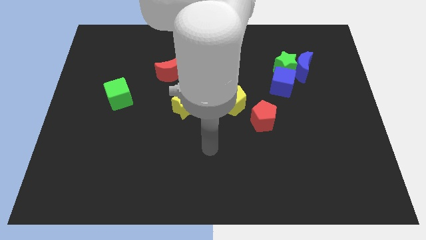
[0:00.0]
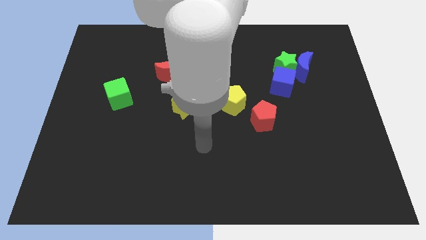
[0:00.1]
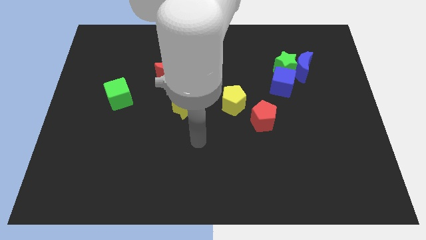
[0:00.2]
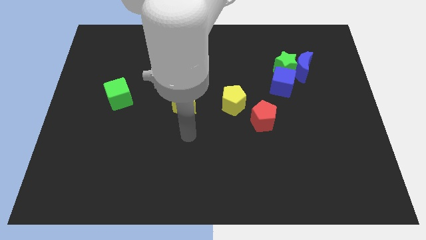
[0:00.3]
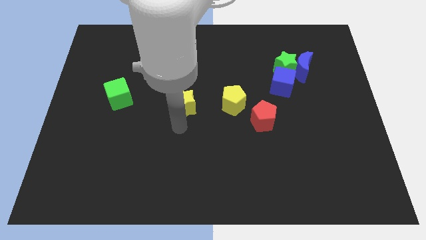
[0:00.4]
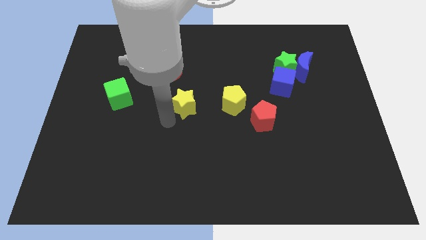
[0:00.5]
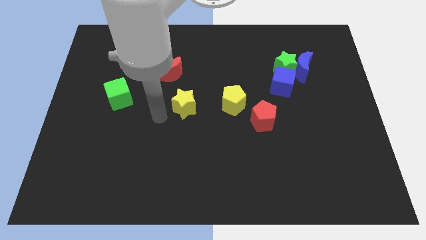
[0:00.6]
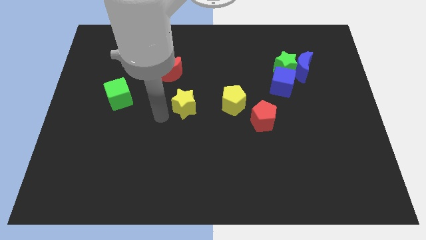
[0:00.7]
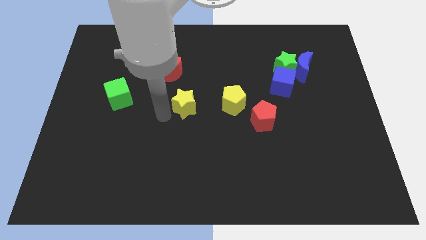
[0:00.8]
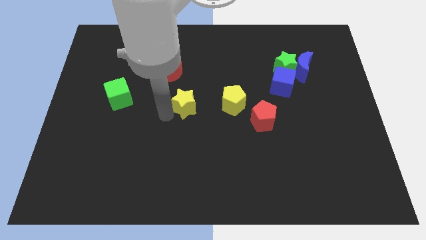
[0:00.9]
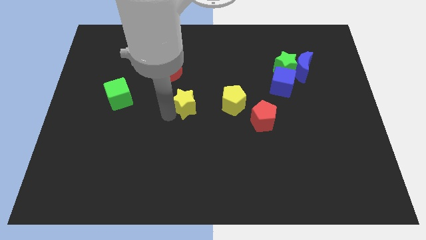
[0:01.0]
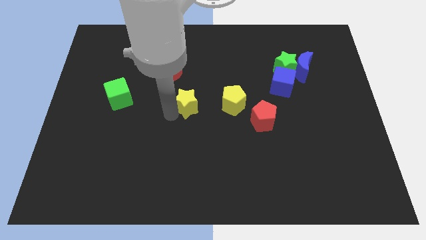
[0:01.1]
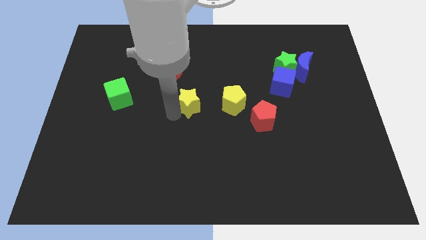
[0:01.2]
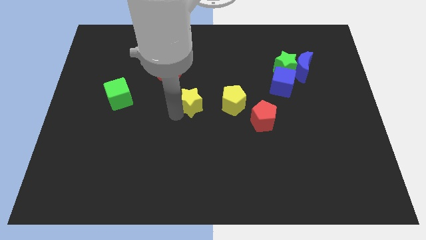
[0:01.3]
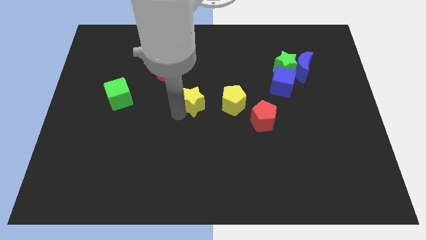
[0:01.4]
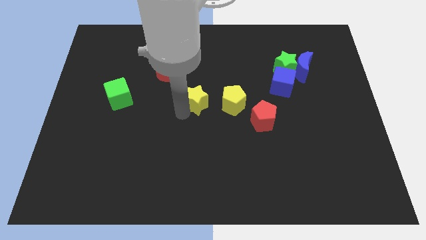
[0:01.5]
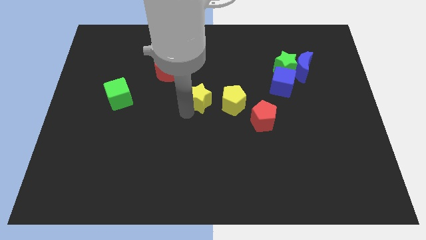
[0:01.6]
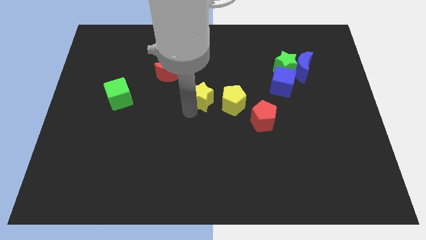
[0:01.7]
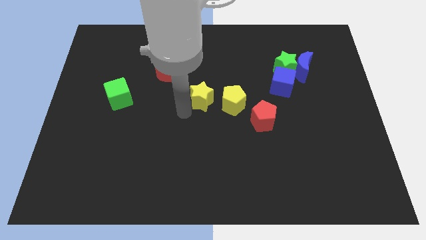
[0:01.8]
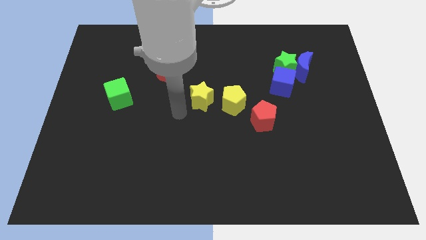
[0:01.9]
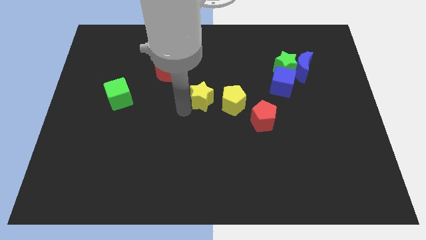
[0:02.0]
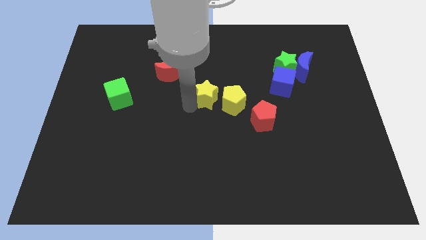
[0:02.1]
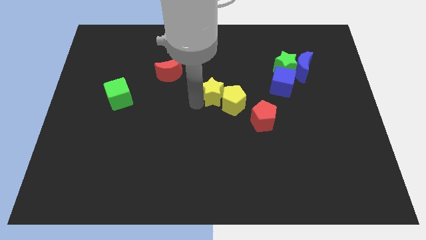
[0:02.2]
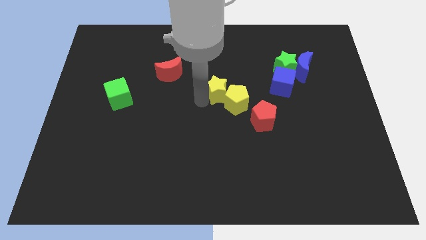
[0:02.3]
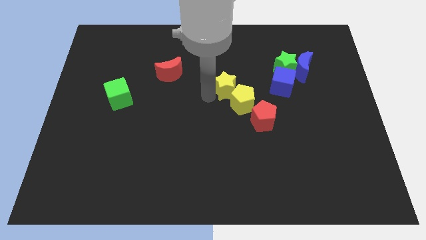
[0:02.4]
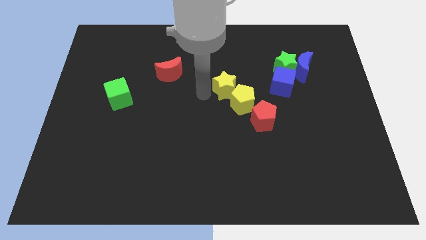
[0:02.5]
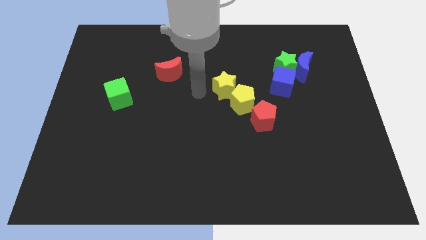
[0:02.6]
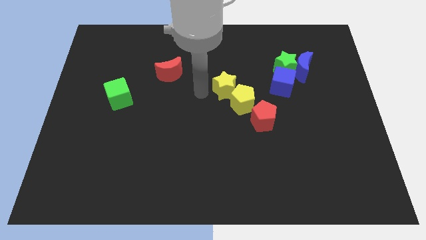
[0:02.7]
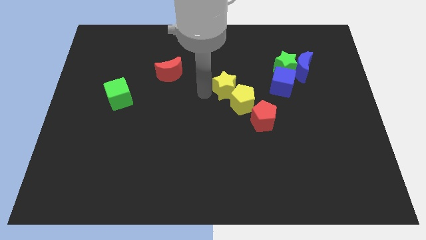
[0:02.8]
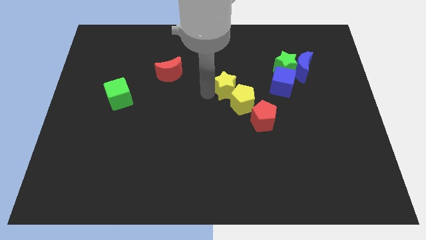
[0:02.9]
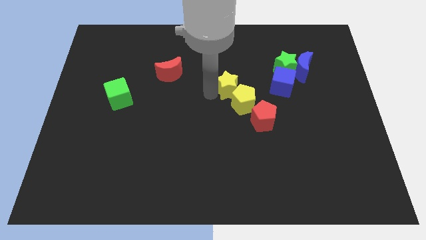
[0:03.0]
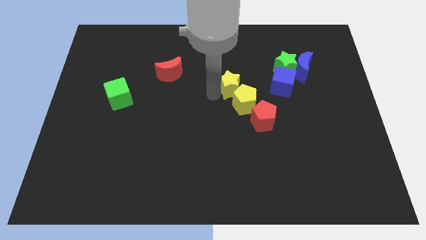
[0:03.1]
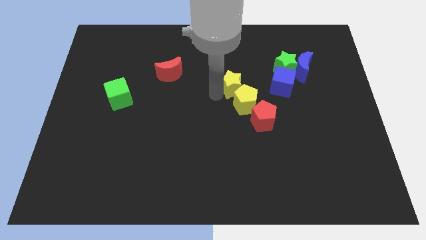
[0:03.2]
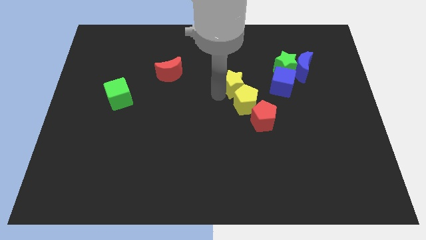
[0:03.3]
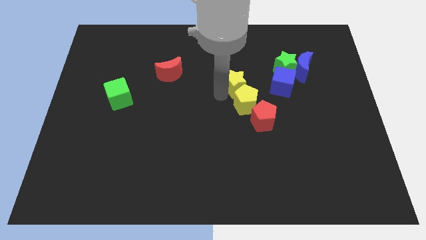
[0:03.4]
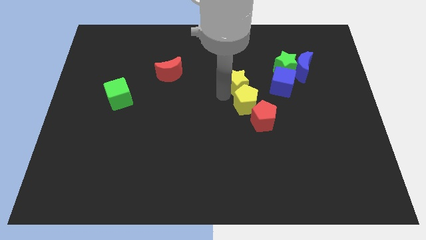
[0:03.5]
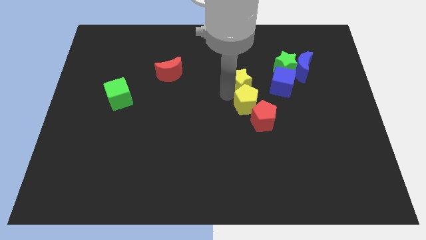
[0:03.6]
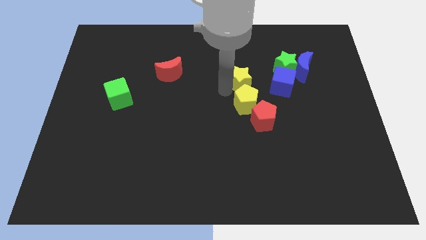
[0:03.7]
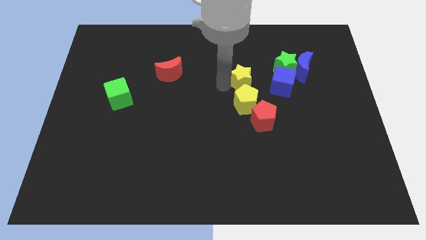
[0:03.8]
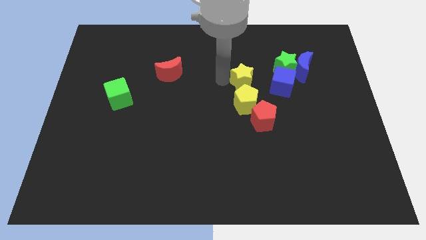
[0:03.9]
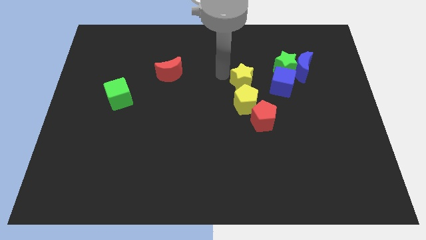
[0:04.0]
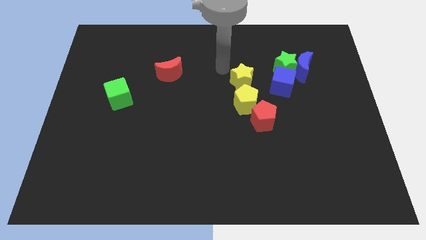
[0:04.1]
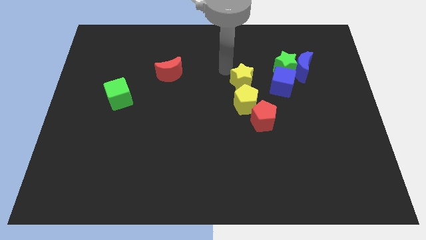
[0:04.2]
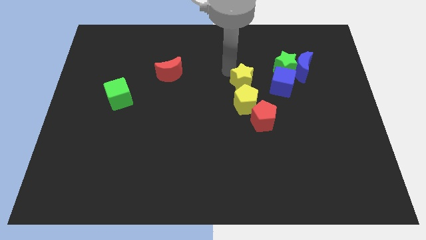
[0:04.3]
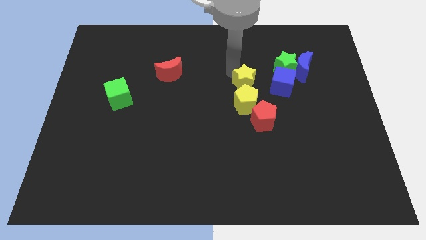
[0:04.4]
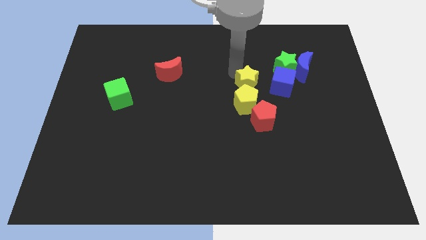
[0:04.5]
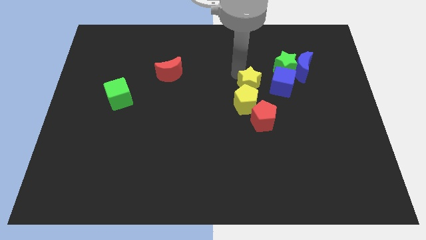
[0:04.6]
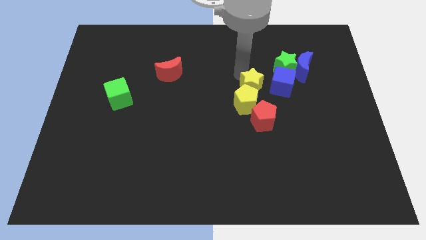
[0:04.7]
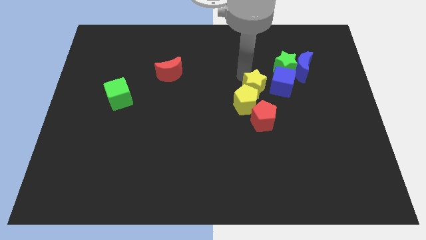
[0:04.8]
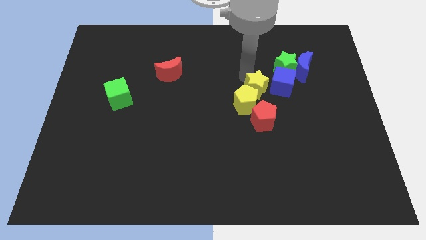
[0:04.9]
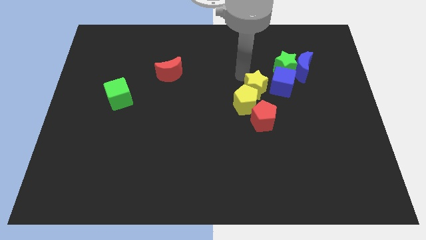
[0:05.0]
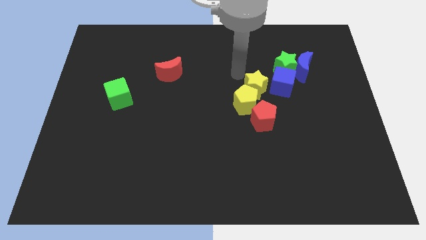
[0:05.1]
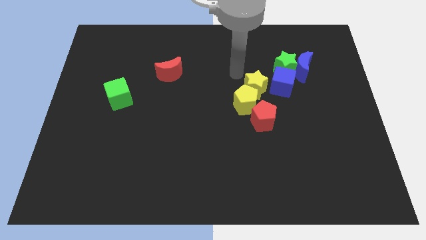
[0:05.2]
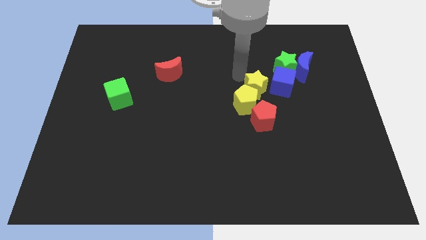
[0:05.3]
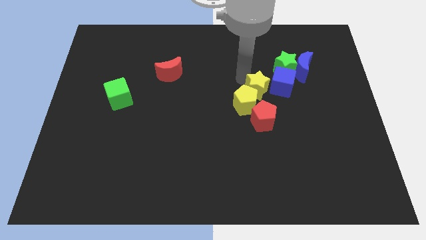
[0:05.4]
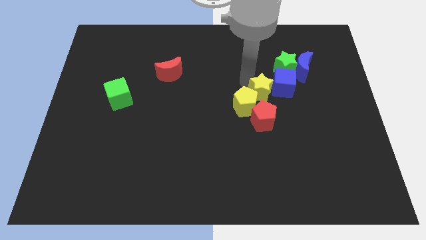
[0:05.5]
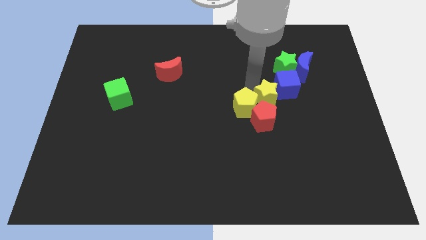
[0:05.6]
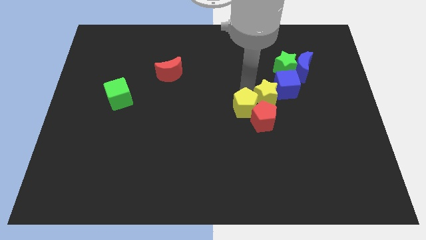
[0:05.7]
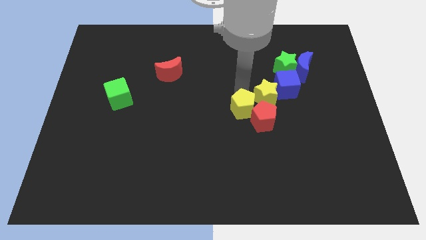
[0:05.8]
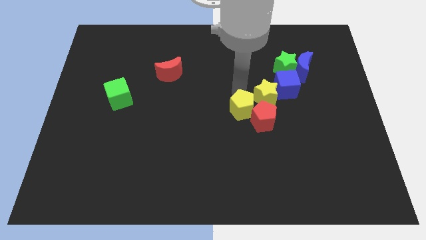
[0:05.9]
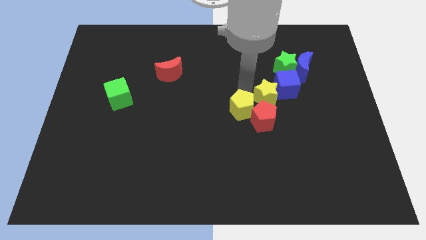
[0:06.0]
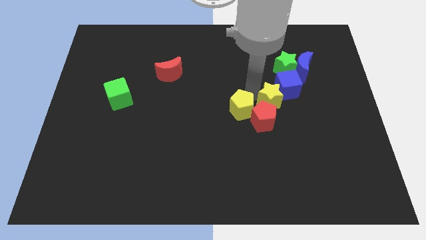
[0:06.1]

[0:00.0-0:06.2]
slide the yellow star to the right

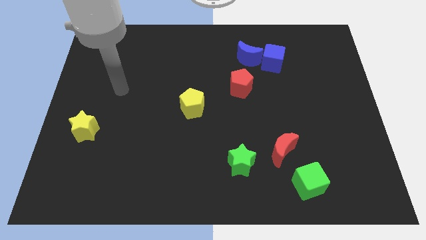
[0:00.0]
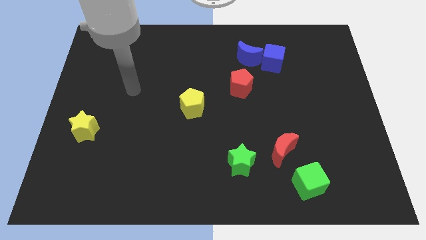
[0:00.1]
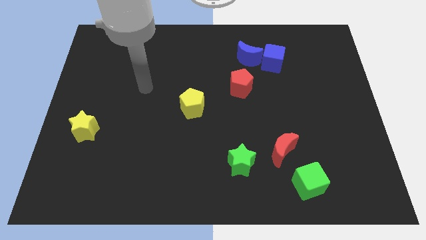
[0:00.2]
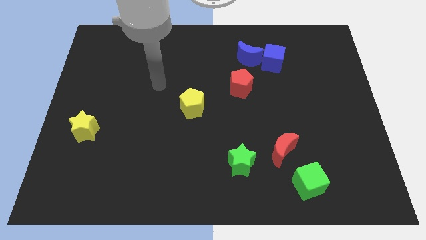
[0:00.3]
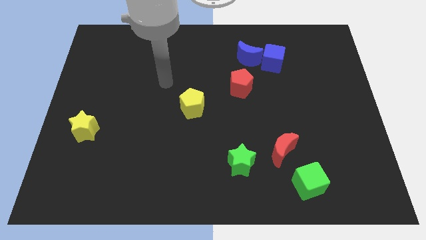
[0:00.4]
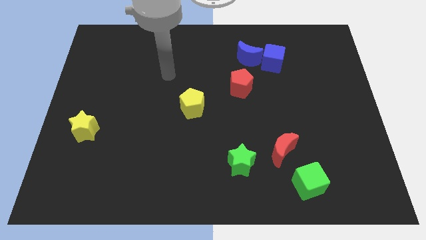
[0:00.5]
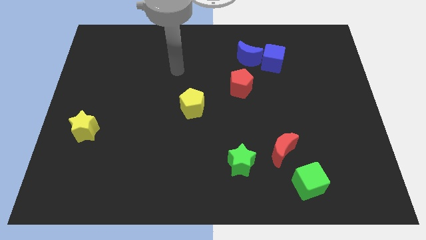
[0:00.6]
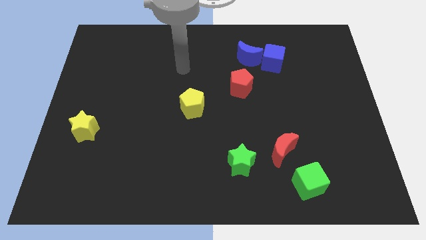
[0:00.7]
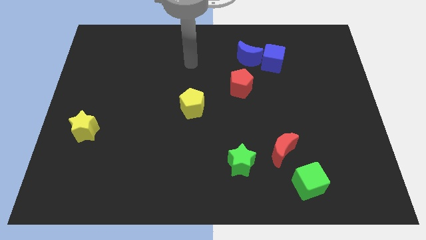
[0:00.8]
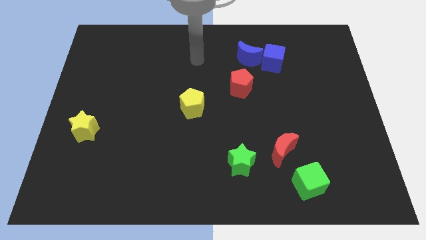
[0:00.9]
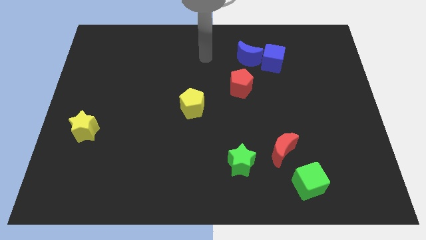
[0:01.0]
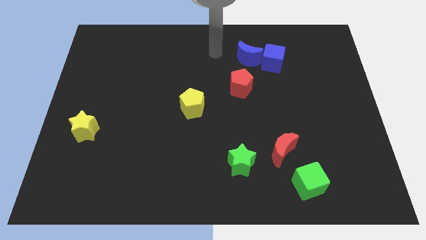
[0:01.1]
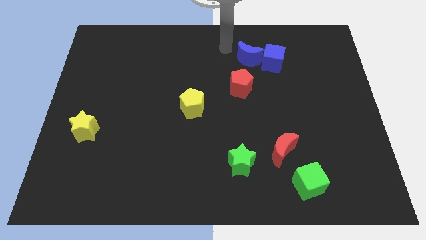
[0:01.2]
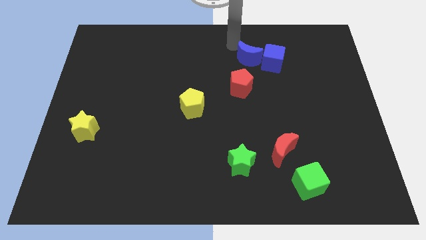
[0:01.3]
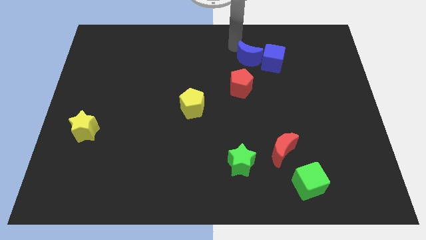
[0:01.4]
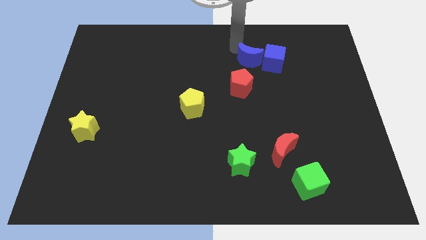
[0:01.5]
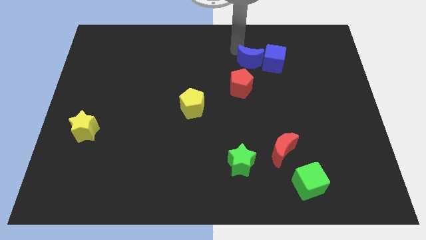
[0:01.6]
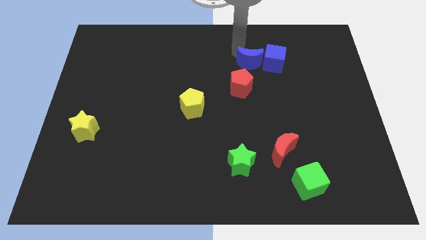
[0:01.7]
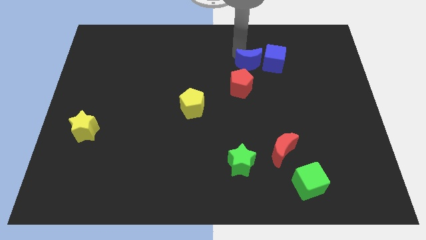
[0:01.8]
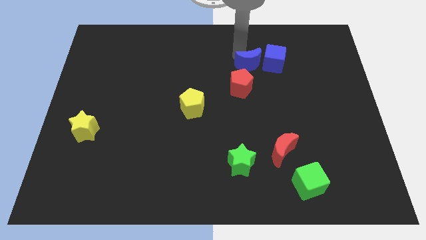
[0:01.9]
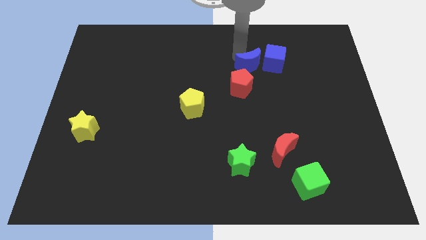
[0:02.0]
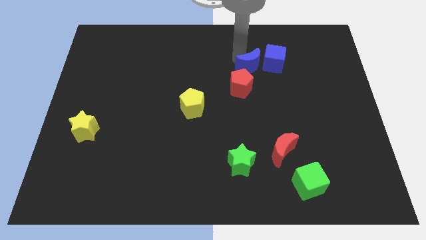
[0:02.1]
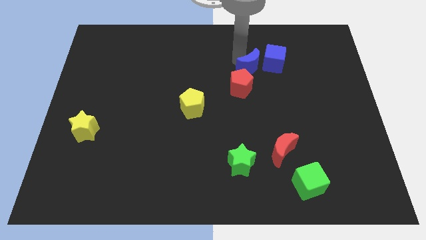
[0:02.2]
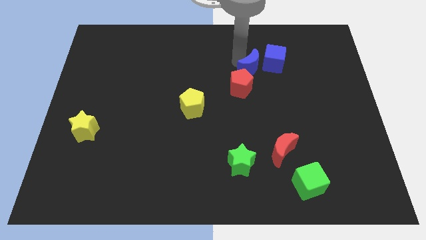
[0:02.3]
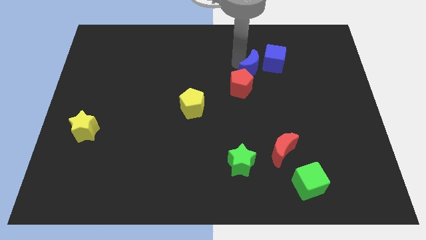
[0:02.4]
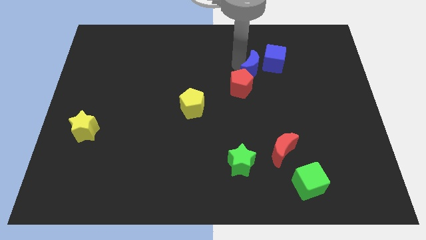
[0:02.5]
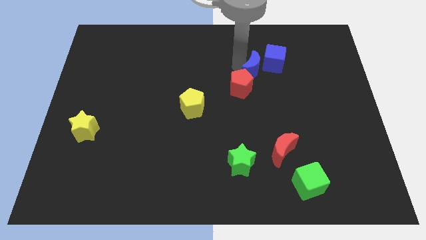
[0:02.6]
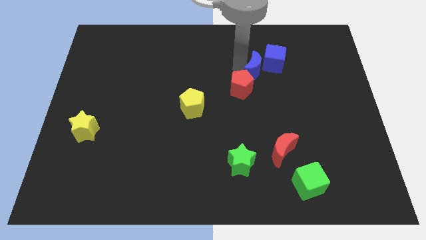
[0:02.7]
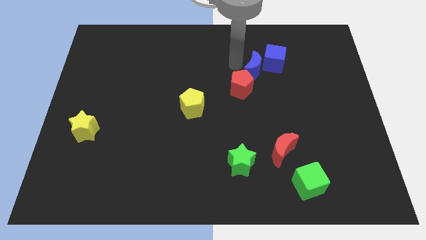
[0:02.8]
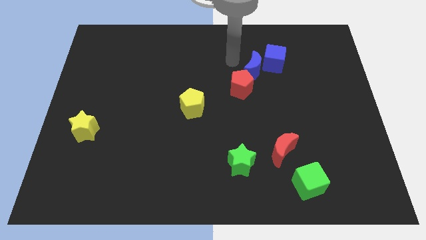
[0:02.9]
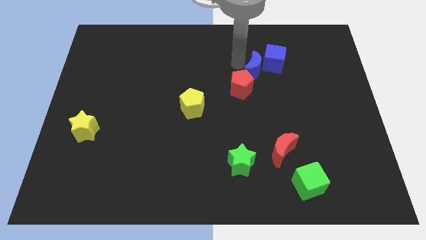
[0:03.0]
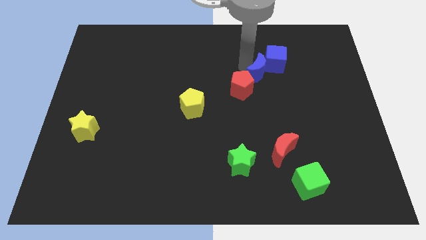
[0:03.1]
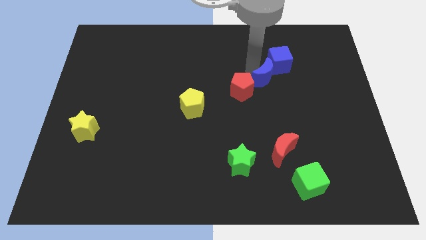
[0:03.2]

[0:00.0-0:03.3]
slide the blue moon a little diagonally downwards and right
